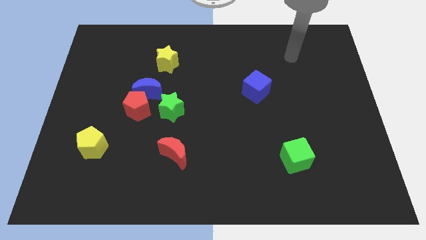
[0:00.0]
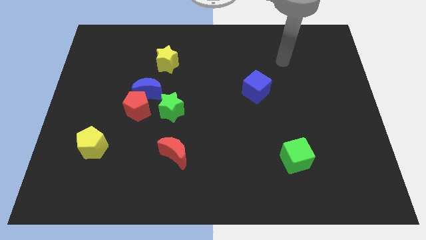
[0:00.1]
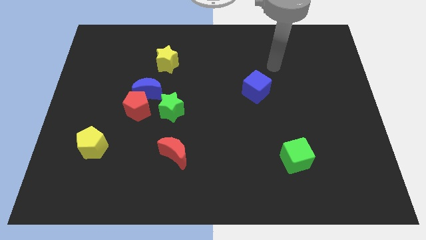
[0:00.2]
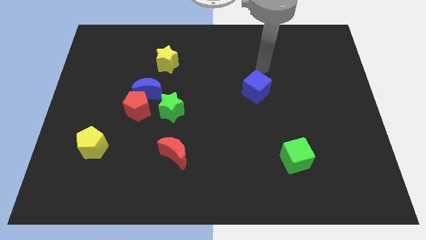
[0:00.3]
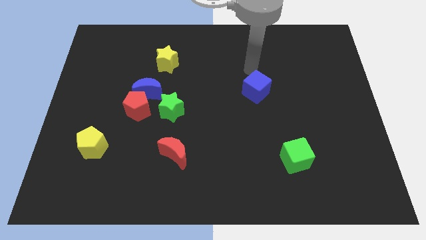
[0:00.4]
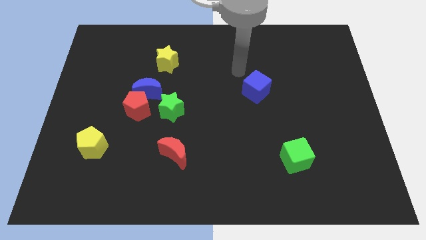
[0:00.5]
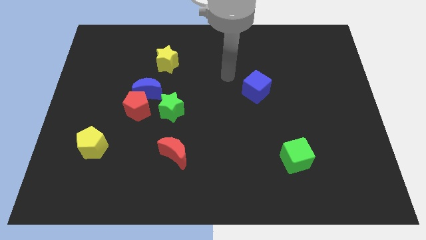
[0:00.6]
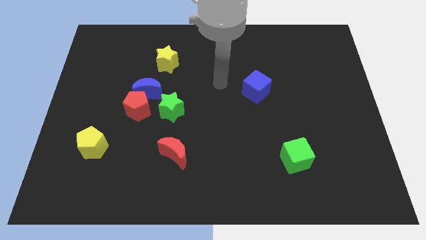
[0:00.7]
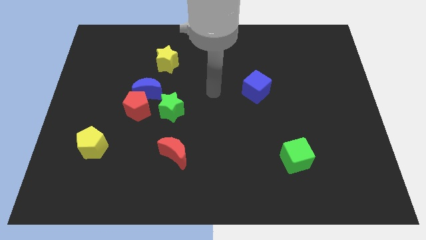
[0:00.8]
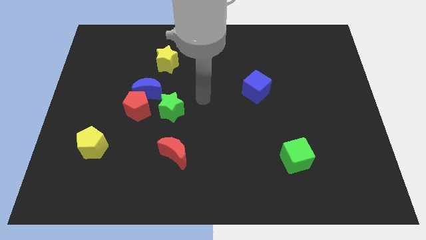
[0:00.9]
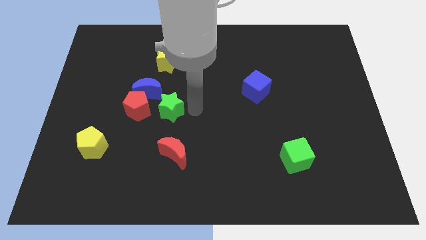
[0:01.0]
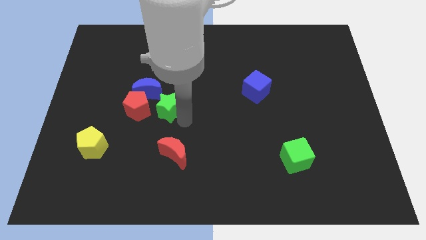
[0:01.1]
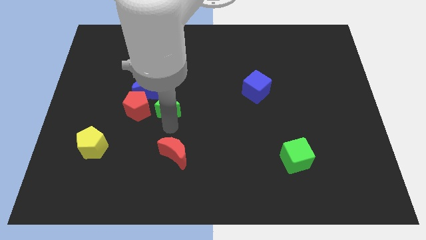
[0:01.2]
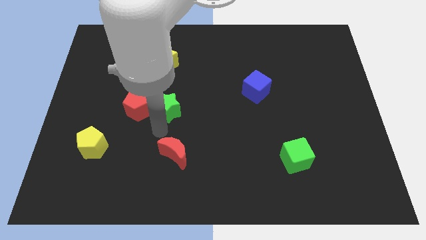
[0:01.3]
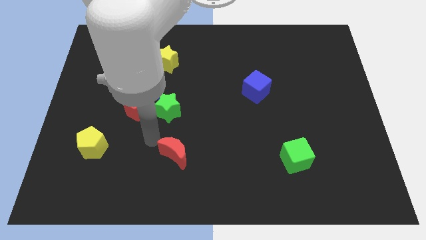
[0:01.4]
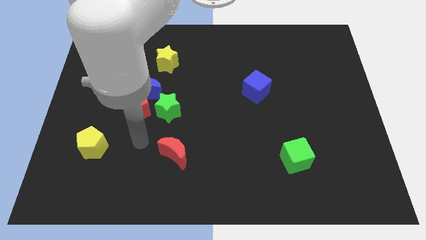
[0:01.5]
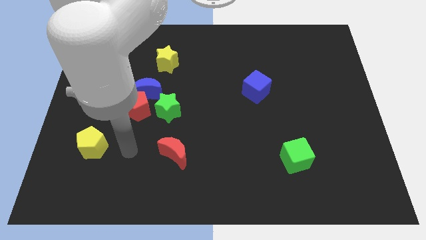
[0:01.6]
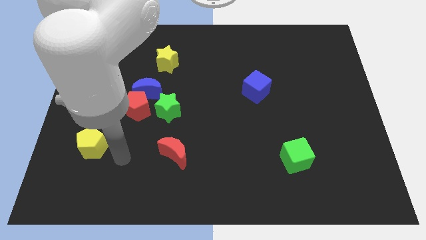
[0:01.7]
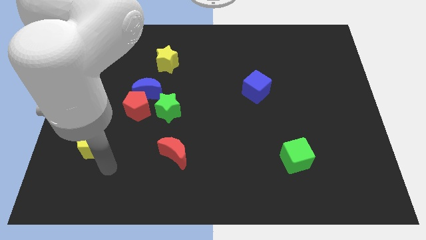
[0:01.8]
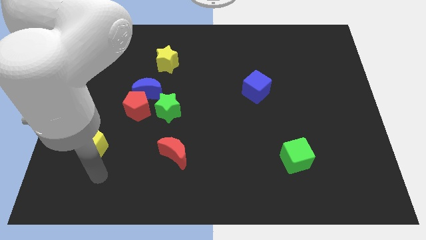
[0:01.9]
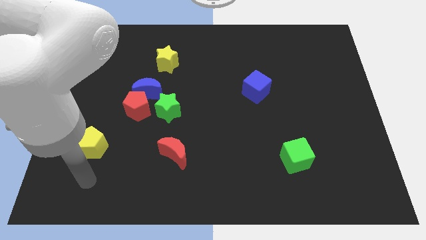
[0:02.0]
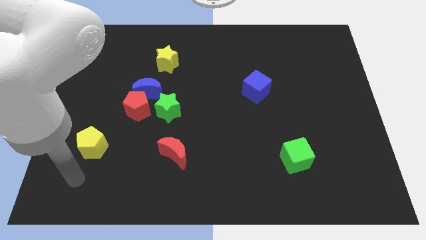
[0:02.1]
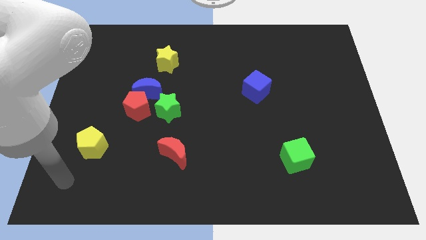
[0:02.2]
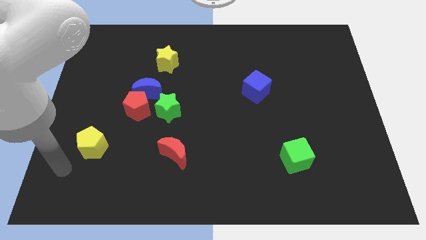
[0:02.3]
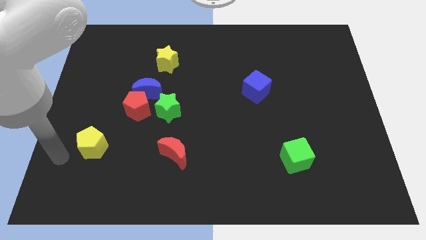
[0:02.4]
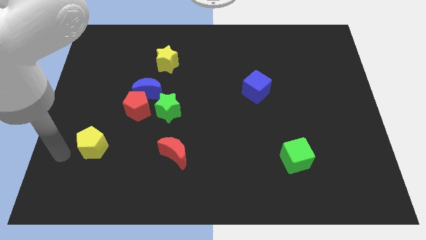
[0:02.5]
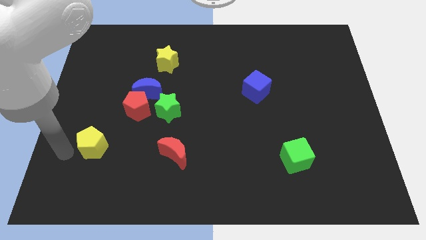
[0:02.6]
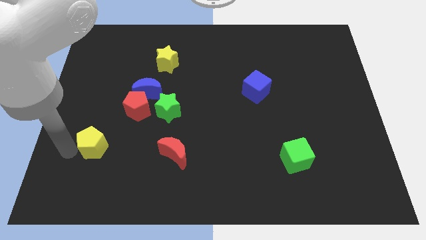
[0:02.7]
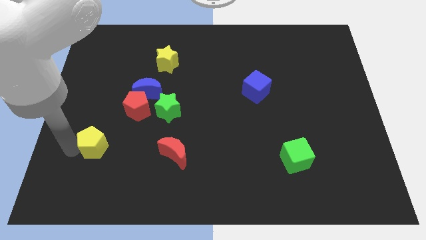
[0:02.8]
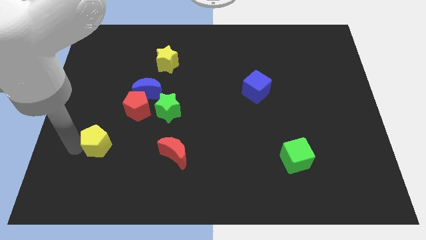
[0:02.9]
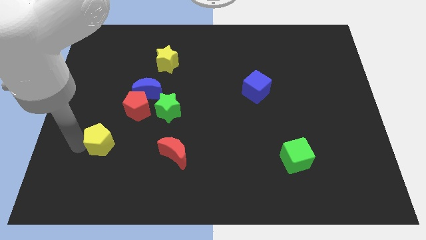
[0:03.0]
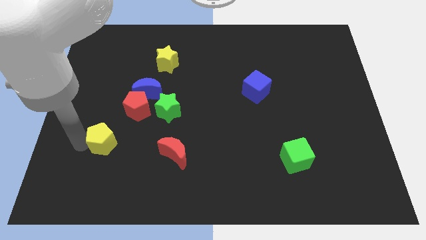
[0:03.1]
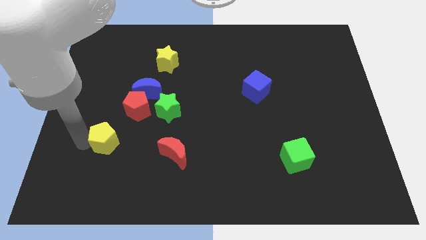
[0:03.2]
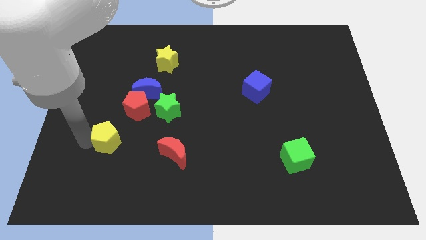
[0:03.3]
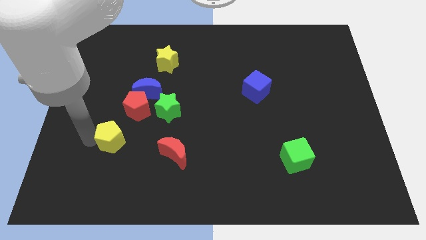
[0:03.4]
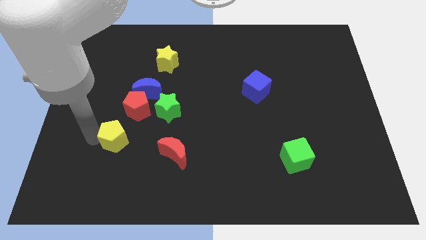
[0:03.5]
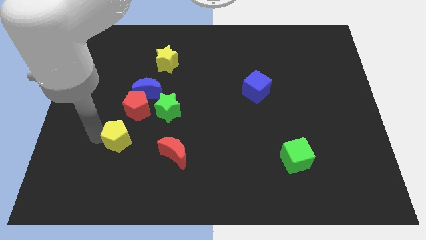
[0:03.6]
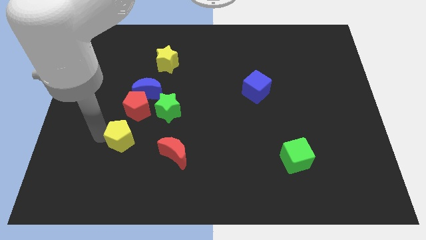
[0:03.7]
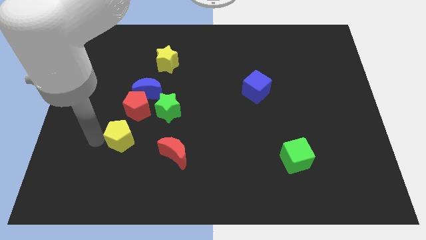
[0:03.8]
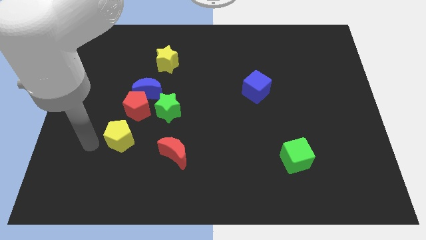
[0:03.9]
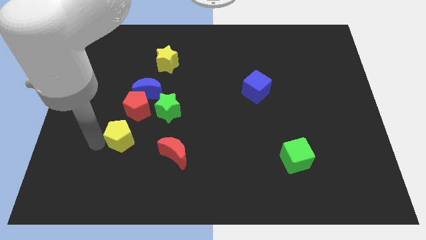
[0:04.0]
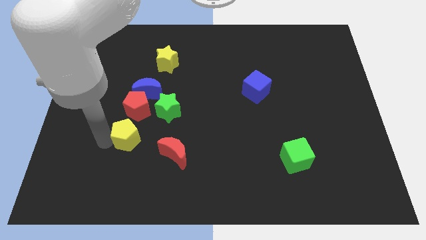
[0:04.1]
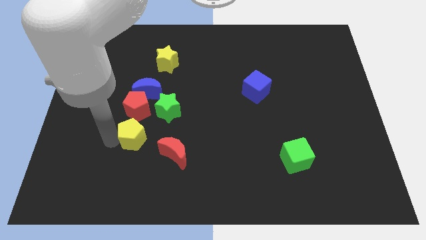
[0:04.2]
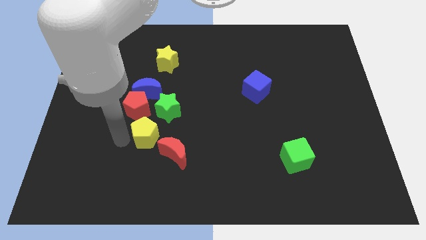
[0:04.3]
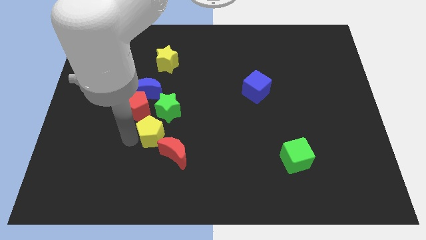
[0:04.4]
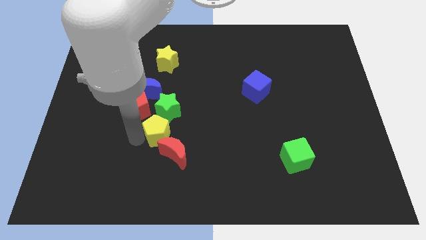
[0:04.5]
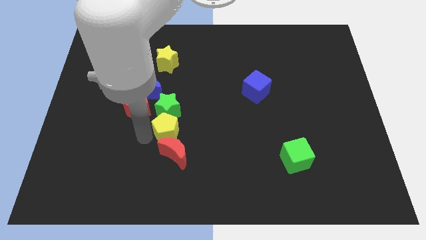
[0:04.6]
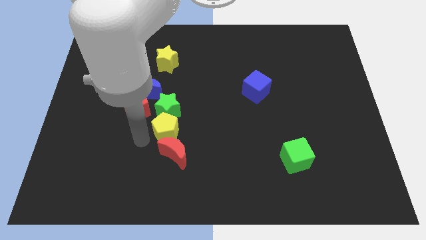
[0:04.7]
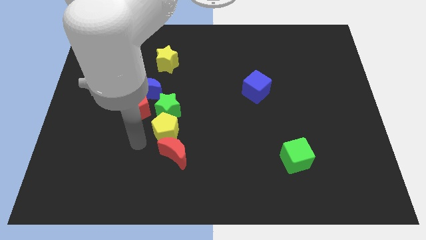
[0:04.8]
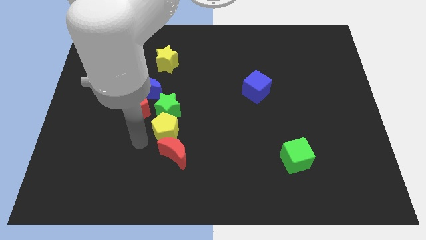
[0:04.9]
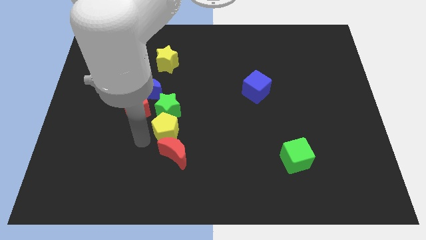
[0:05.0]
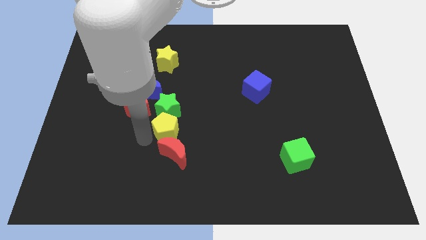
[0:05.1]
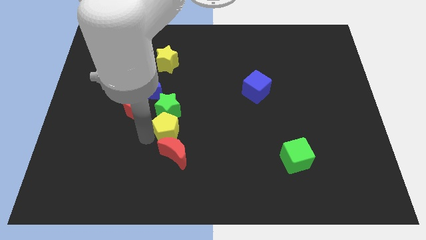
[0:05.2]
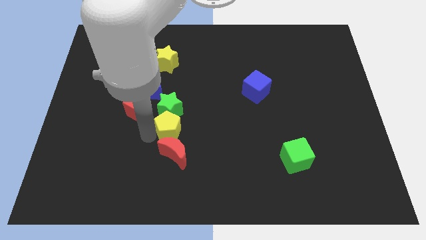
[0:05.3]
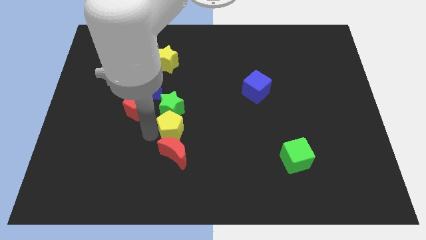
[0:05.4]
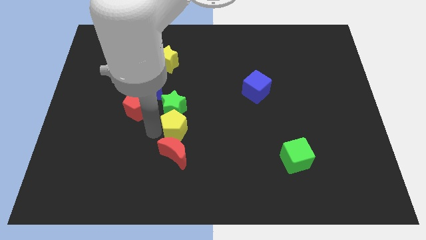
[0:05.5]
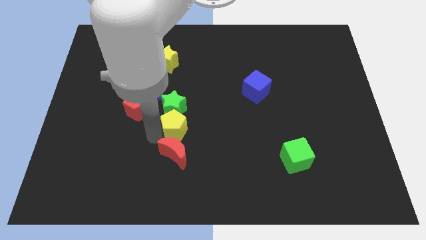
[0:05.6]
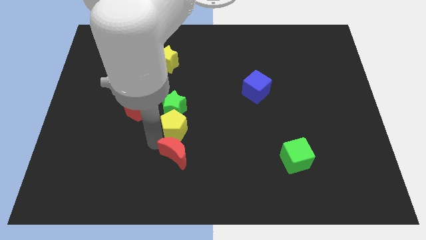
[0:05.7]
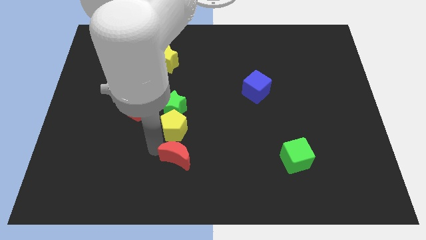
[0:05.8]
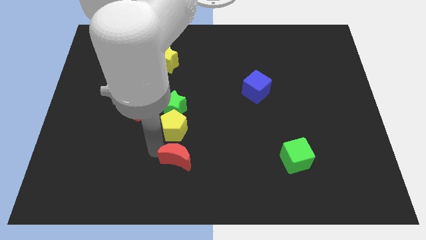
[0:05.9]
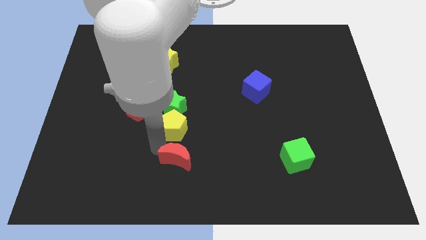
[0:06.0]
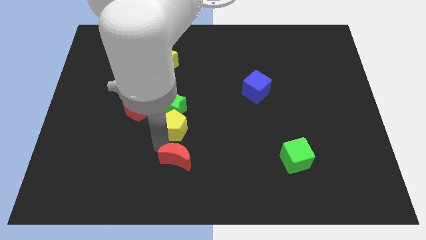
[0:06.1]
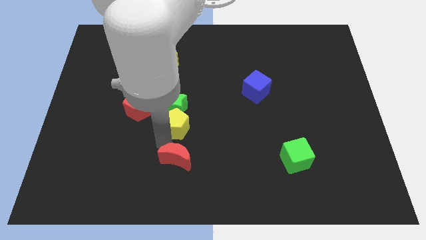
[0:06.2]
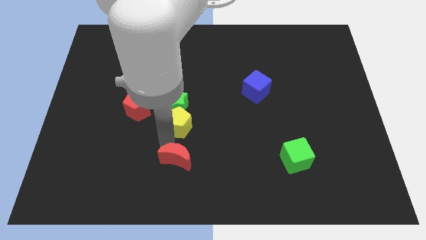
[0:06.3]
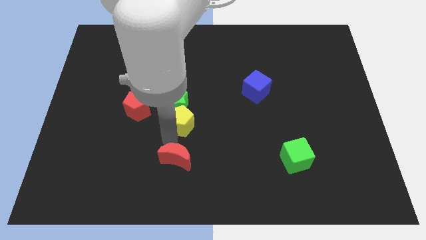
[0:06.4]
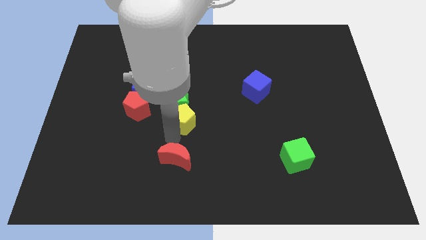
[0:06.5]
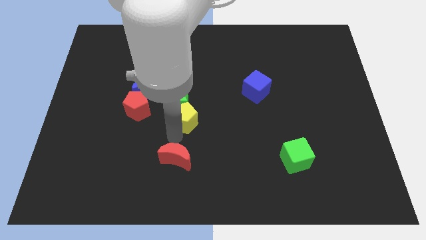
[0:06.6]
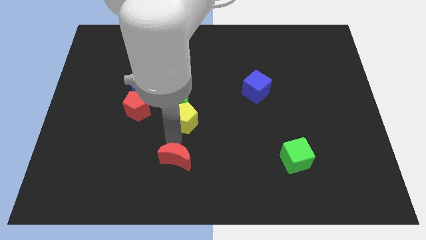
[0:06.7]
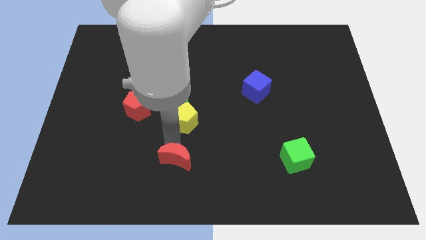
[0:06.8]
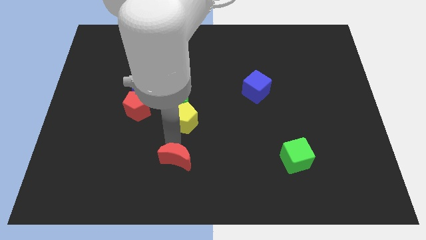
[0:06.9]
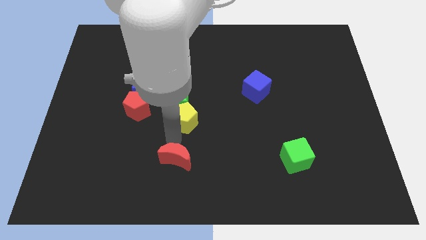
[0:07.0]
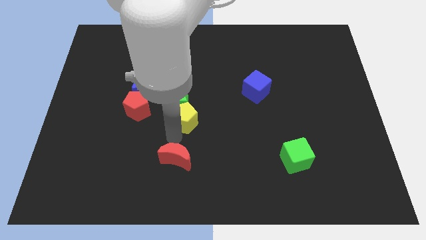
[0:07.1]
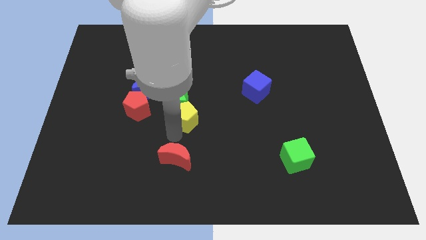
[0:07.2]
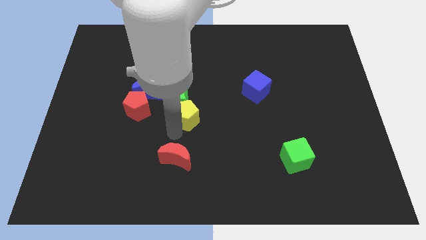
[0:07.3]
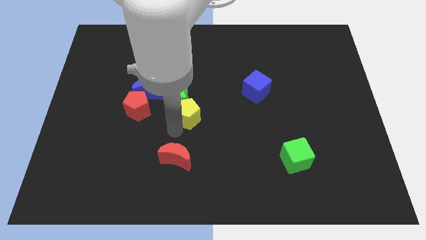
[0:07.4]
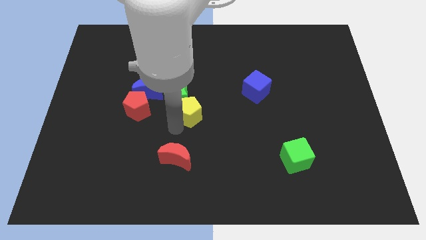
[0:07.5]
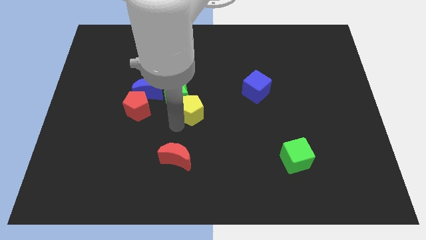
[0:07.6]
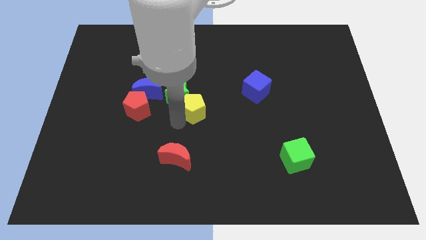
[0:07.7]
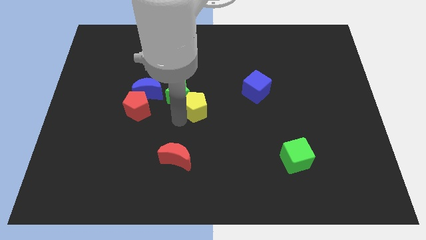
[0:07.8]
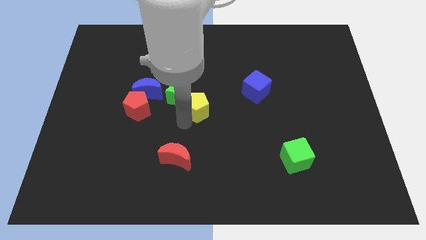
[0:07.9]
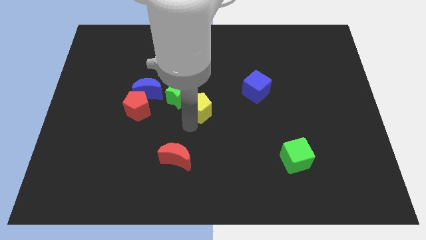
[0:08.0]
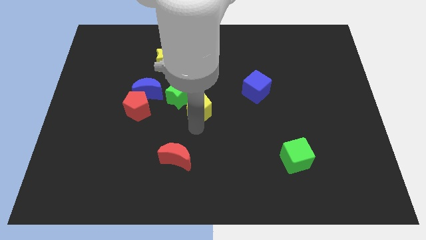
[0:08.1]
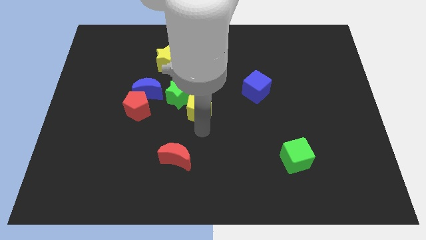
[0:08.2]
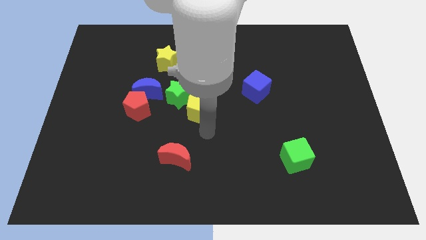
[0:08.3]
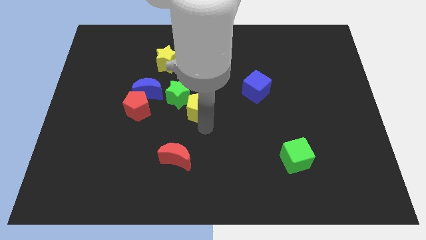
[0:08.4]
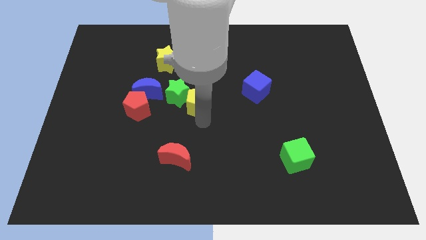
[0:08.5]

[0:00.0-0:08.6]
move the yellow pentagon up and then to the right
